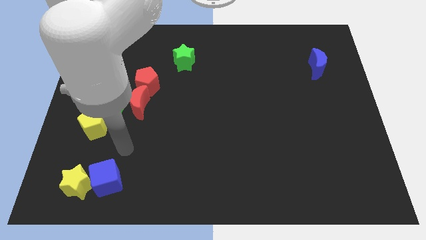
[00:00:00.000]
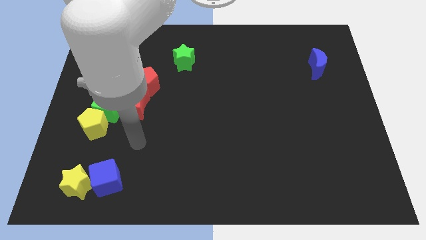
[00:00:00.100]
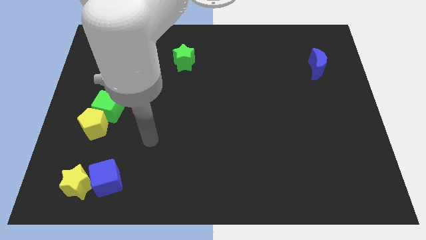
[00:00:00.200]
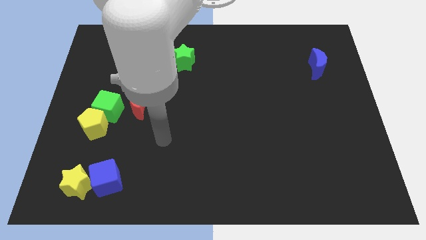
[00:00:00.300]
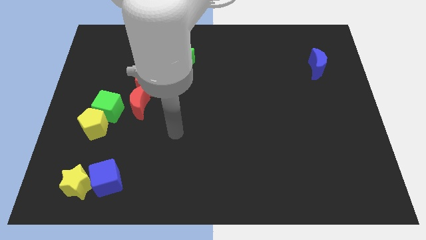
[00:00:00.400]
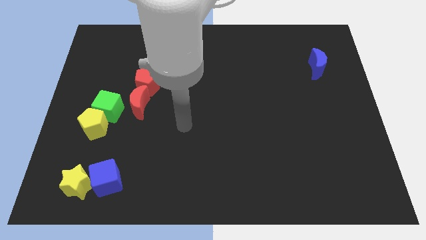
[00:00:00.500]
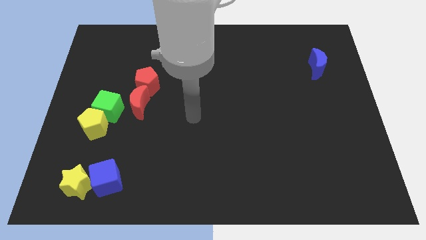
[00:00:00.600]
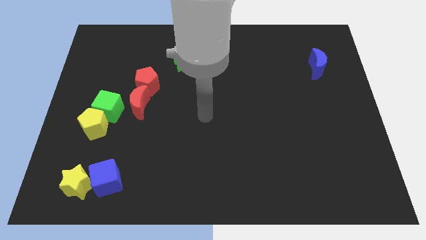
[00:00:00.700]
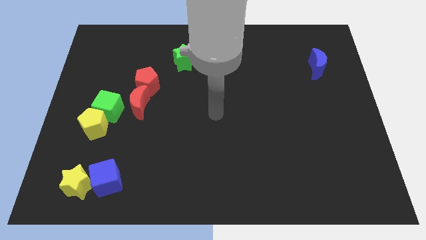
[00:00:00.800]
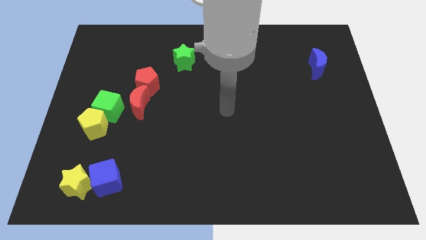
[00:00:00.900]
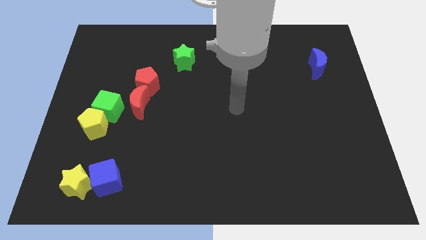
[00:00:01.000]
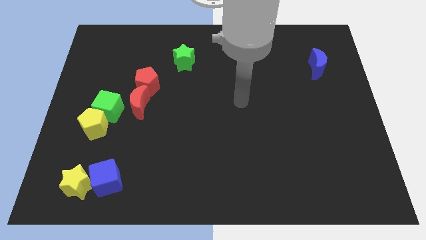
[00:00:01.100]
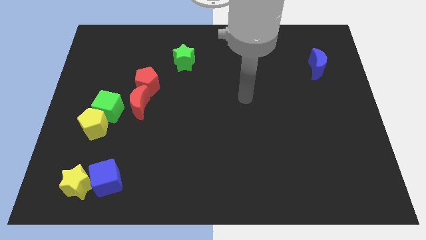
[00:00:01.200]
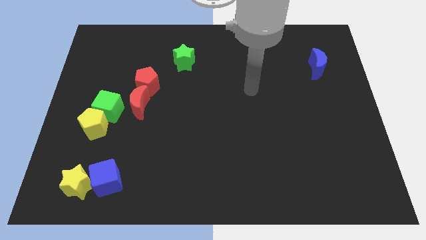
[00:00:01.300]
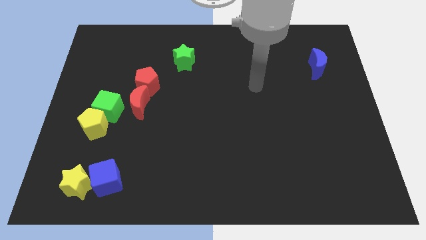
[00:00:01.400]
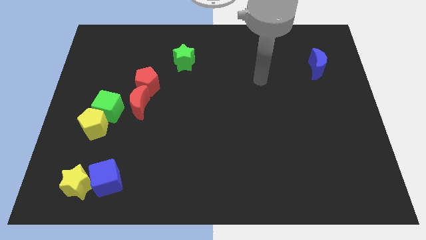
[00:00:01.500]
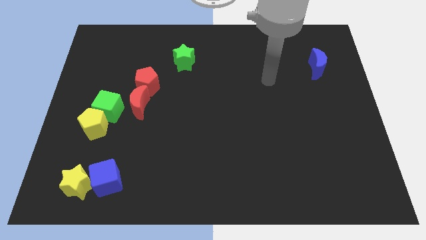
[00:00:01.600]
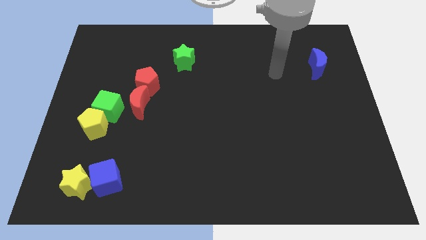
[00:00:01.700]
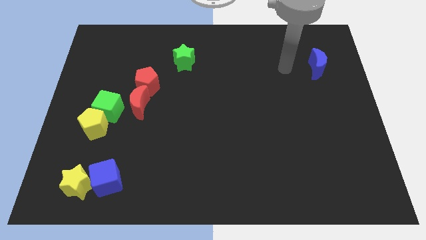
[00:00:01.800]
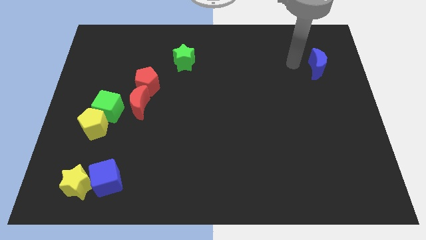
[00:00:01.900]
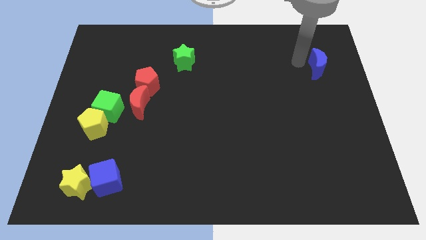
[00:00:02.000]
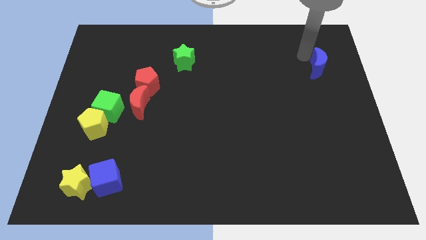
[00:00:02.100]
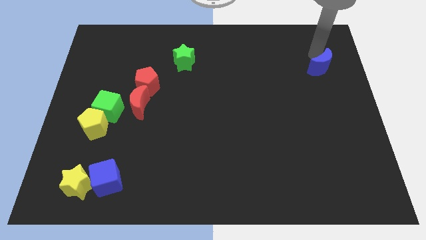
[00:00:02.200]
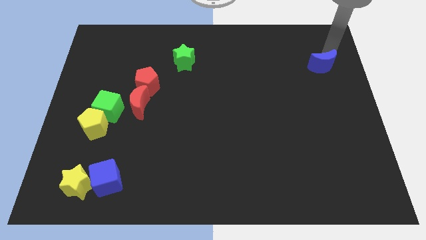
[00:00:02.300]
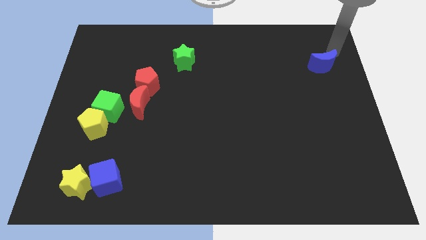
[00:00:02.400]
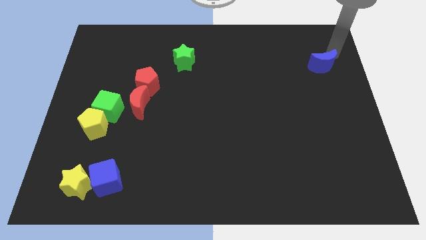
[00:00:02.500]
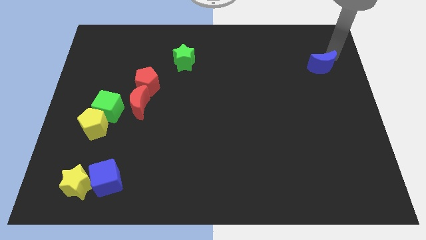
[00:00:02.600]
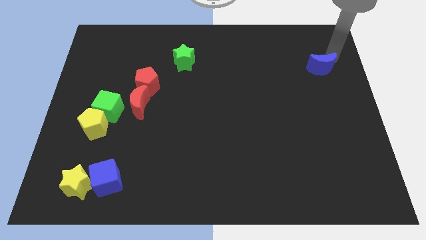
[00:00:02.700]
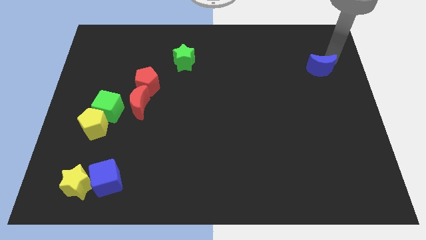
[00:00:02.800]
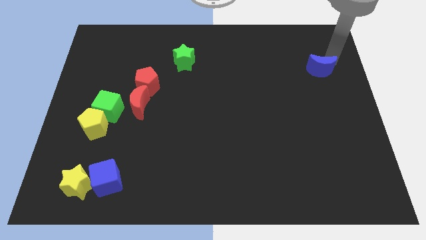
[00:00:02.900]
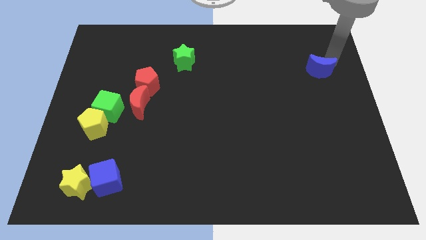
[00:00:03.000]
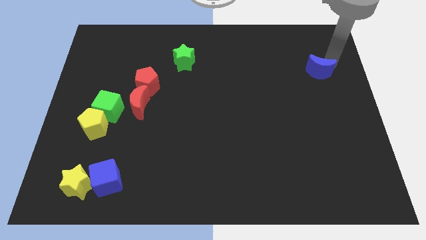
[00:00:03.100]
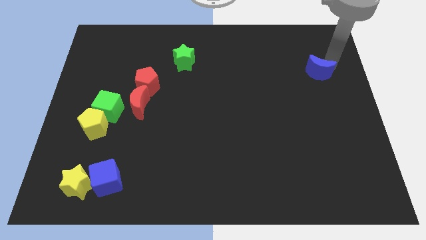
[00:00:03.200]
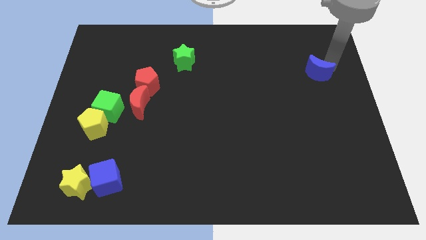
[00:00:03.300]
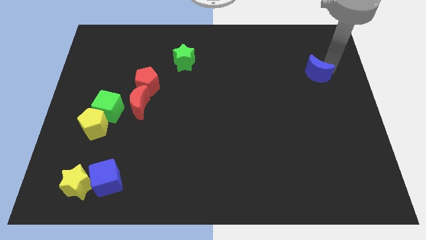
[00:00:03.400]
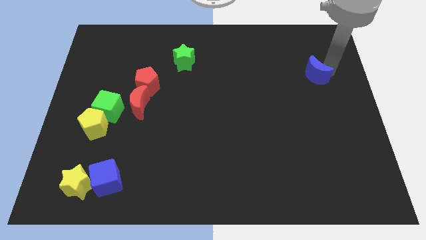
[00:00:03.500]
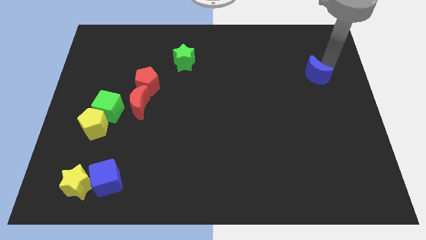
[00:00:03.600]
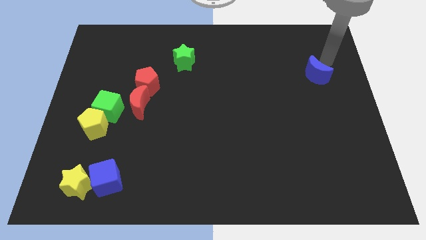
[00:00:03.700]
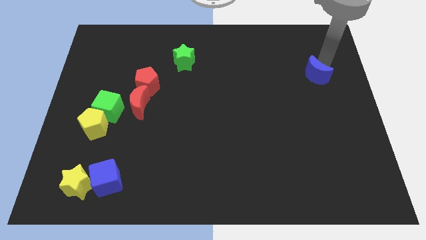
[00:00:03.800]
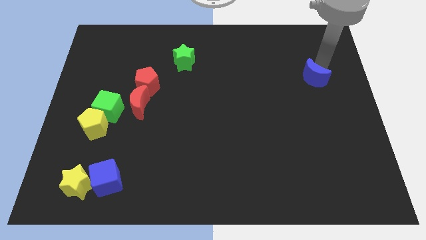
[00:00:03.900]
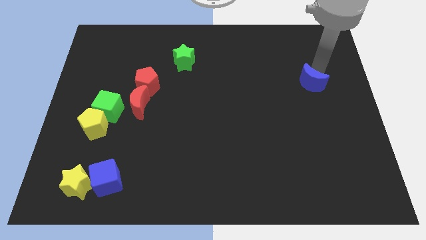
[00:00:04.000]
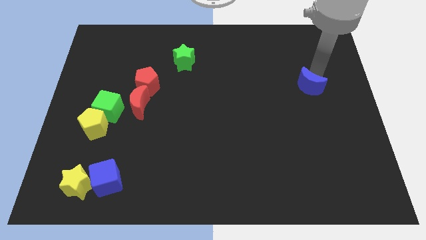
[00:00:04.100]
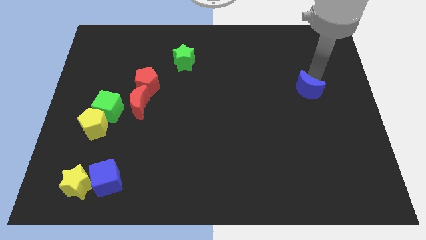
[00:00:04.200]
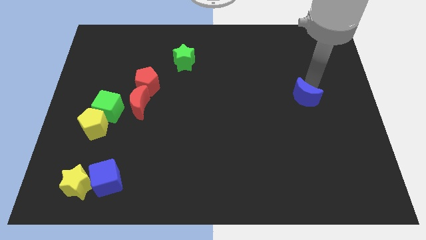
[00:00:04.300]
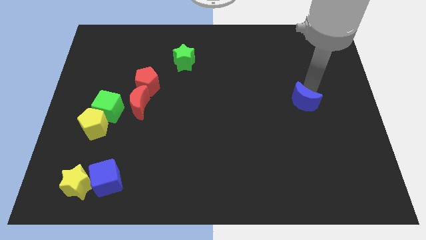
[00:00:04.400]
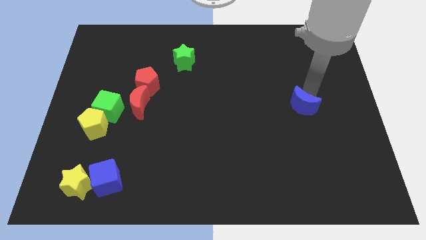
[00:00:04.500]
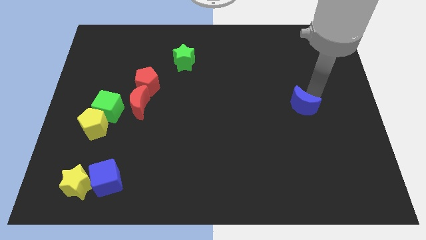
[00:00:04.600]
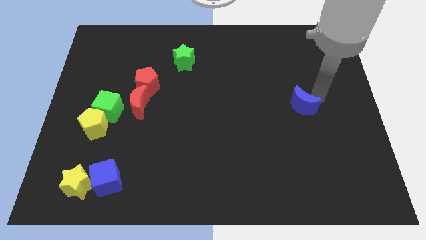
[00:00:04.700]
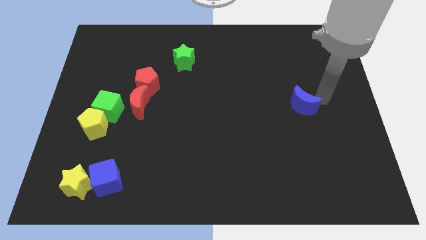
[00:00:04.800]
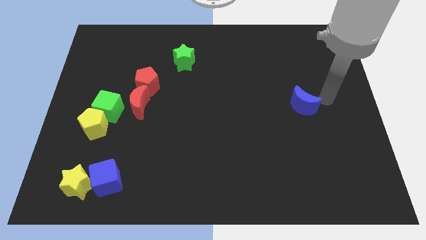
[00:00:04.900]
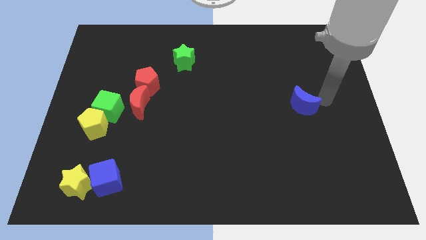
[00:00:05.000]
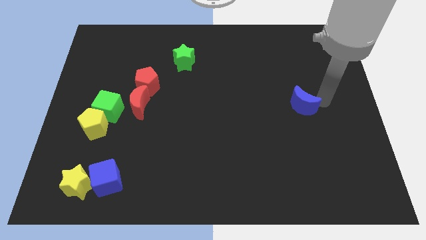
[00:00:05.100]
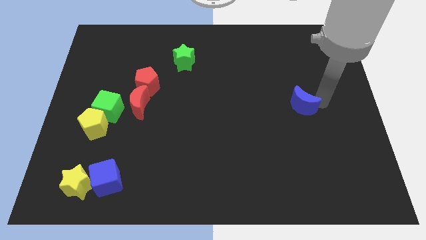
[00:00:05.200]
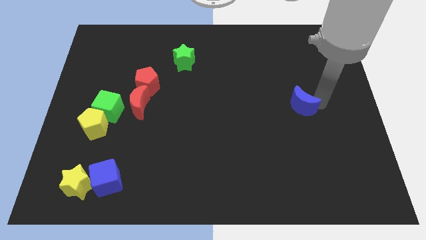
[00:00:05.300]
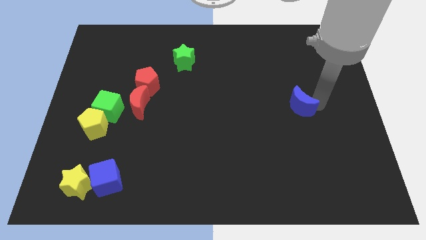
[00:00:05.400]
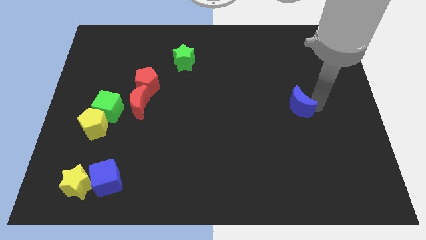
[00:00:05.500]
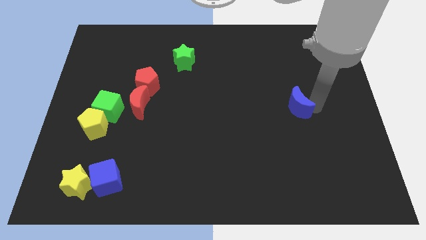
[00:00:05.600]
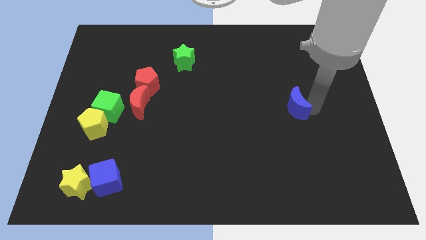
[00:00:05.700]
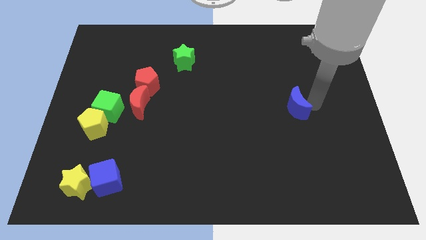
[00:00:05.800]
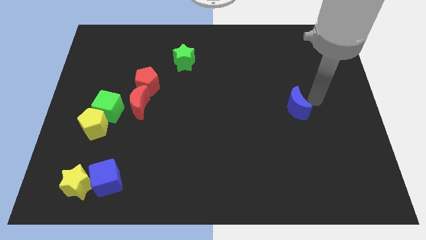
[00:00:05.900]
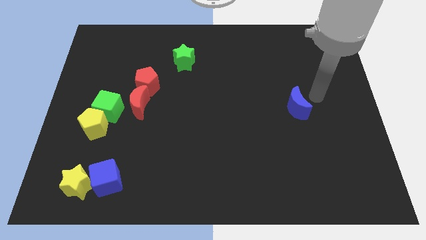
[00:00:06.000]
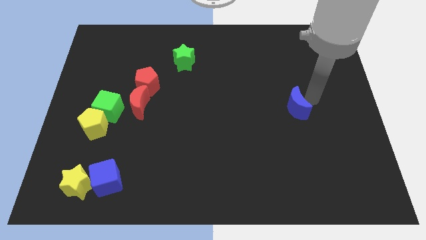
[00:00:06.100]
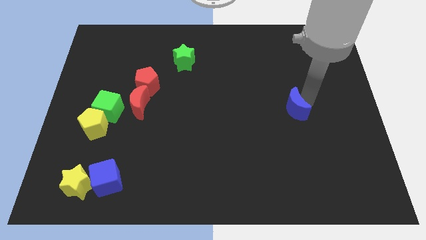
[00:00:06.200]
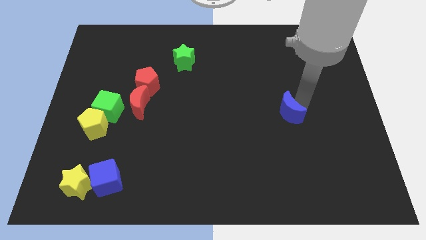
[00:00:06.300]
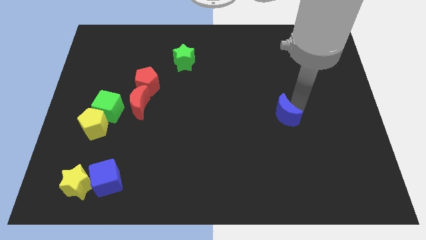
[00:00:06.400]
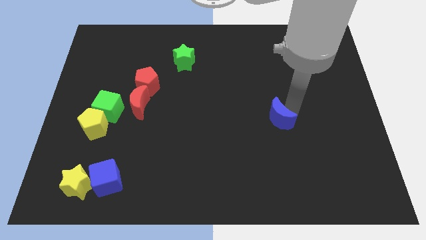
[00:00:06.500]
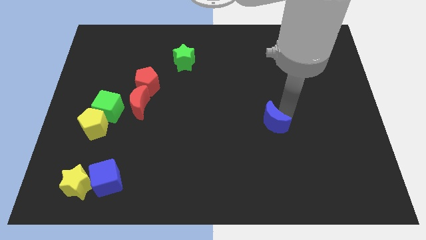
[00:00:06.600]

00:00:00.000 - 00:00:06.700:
slide the blue moon downwards and to the left diagonally

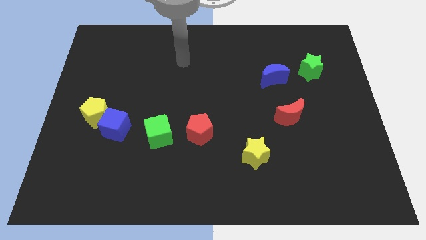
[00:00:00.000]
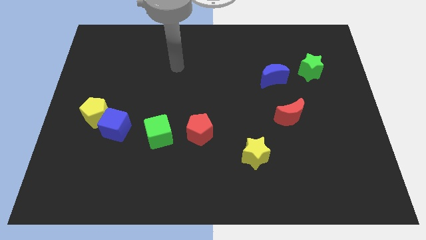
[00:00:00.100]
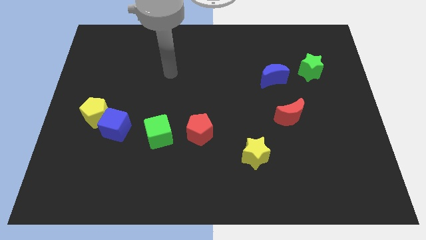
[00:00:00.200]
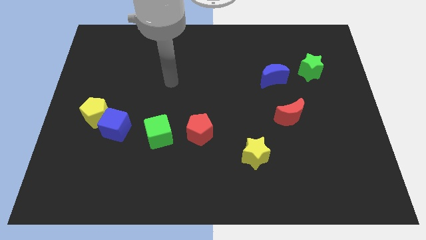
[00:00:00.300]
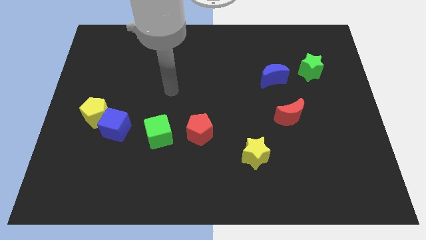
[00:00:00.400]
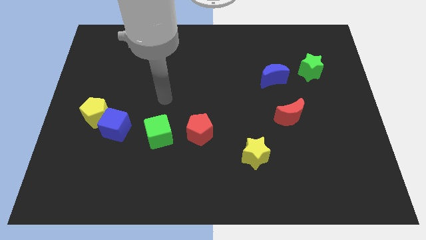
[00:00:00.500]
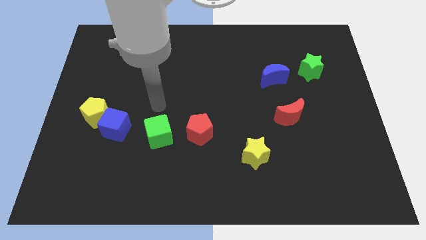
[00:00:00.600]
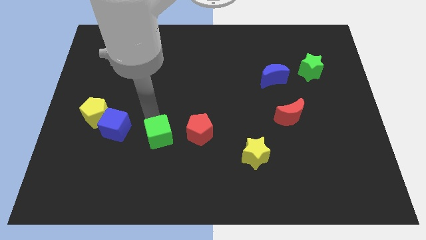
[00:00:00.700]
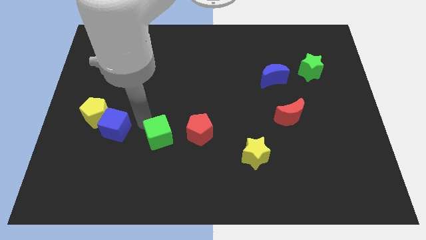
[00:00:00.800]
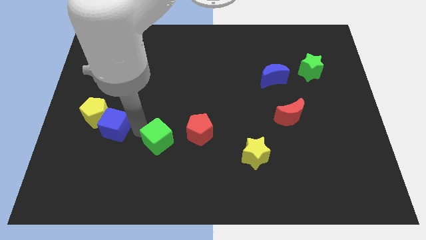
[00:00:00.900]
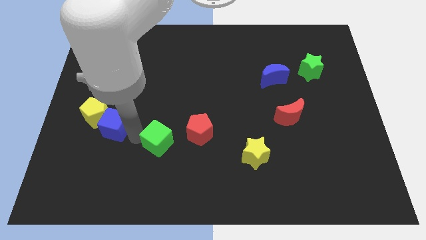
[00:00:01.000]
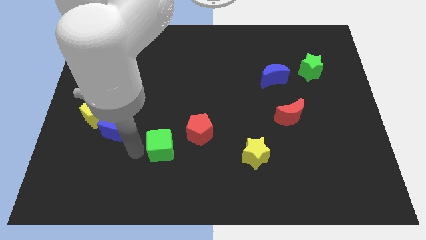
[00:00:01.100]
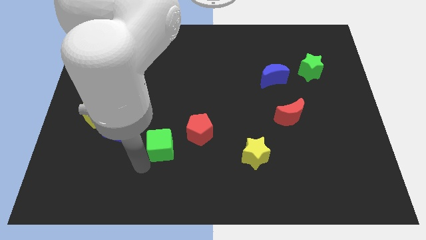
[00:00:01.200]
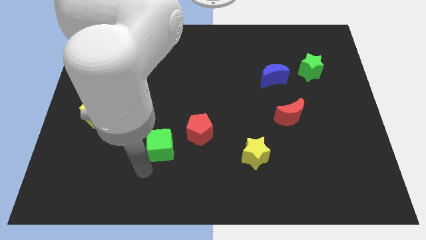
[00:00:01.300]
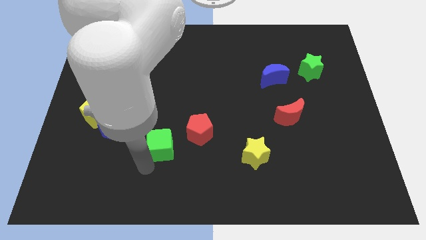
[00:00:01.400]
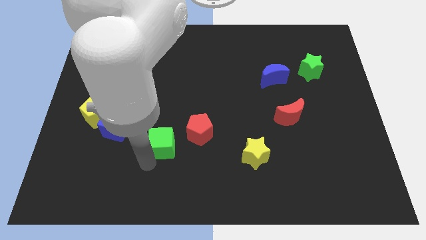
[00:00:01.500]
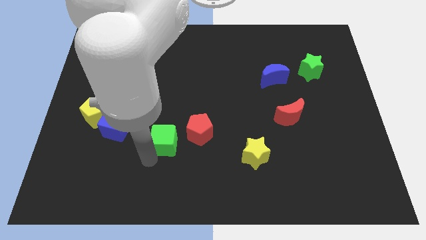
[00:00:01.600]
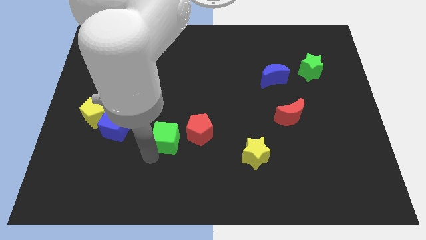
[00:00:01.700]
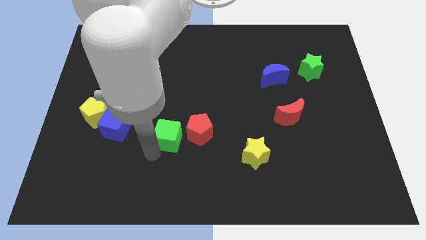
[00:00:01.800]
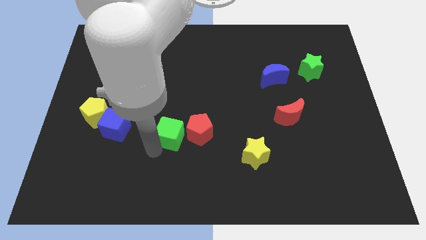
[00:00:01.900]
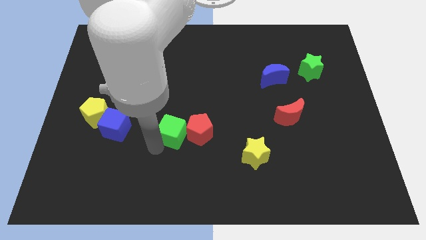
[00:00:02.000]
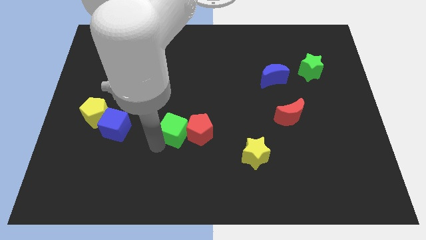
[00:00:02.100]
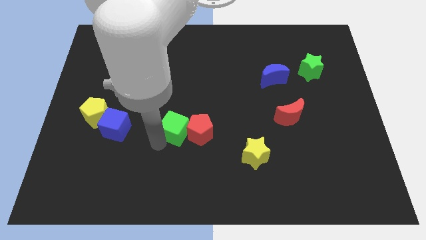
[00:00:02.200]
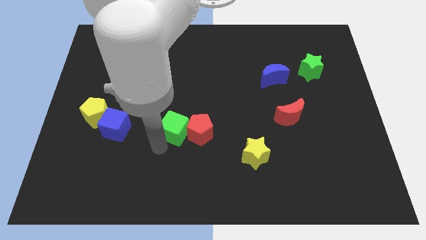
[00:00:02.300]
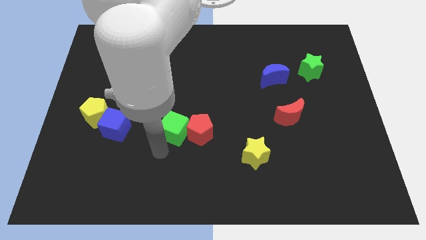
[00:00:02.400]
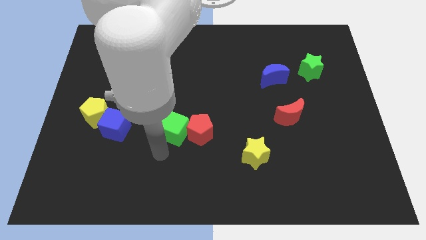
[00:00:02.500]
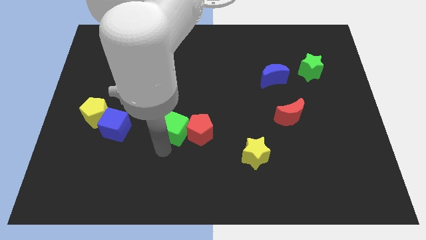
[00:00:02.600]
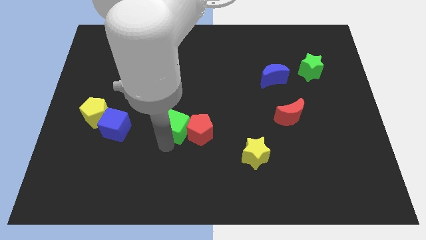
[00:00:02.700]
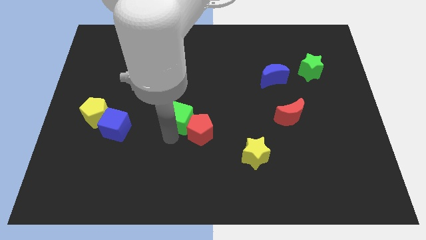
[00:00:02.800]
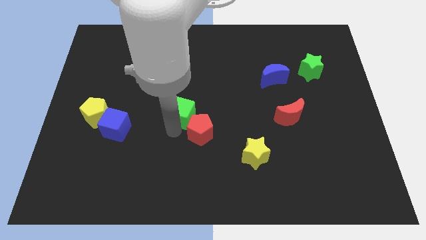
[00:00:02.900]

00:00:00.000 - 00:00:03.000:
push the green cube a bit up and right diagonally
